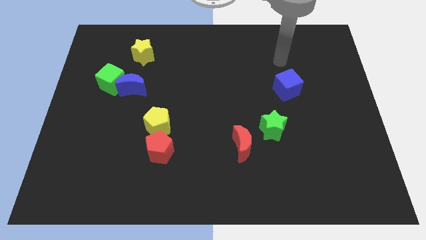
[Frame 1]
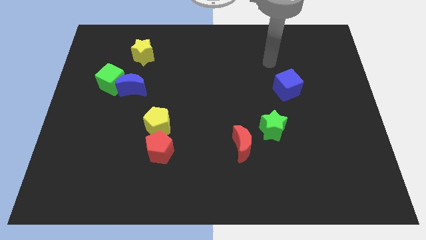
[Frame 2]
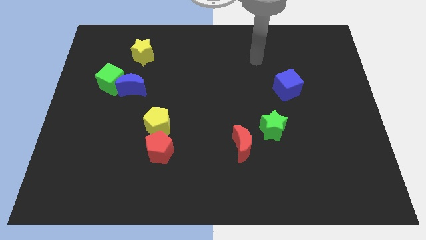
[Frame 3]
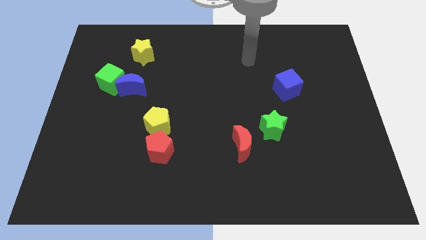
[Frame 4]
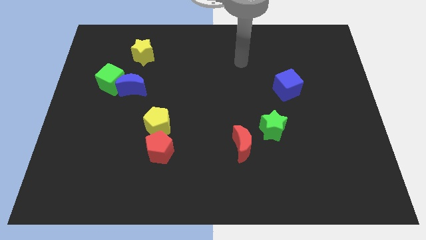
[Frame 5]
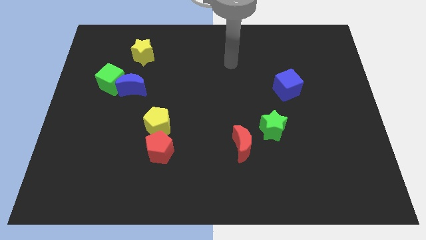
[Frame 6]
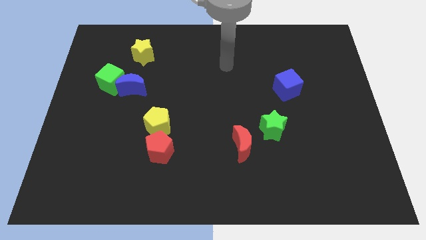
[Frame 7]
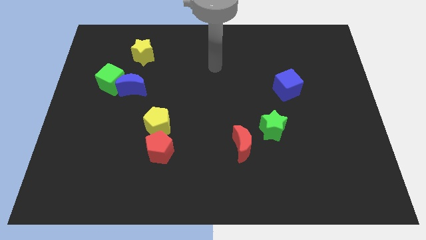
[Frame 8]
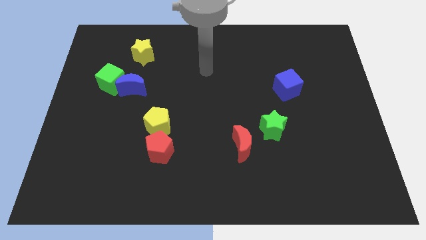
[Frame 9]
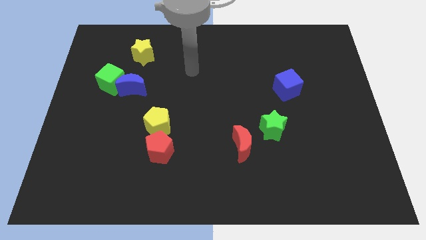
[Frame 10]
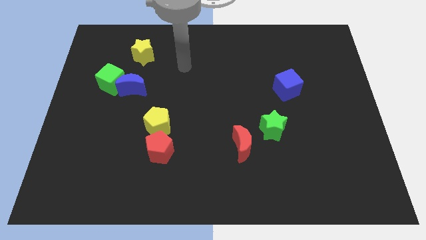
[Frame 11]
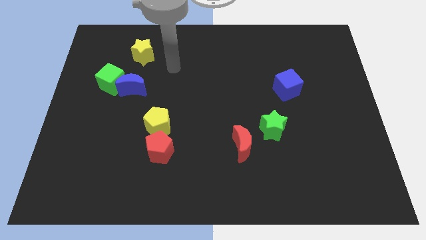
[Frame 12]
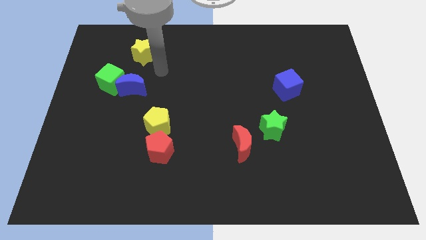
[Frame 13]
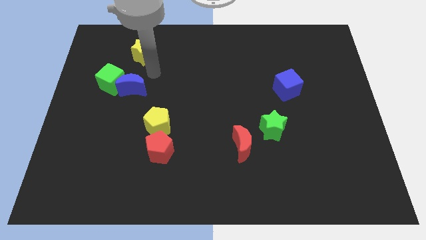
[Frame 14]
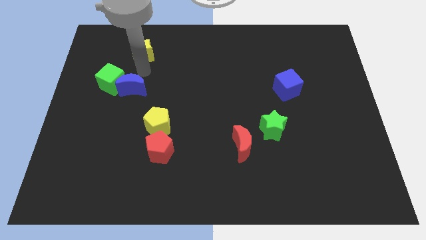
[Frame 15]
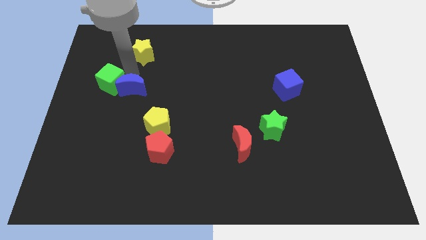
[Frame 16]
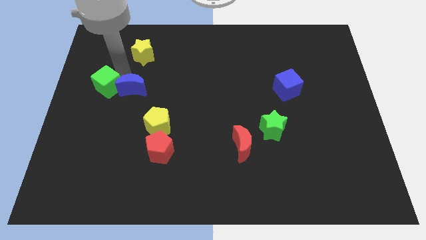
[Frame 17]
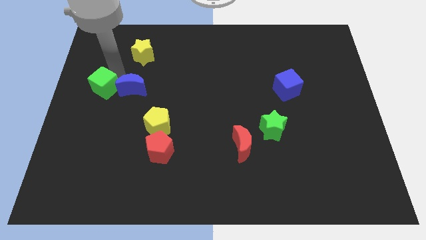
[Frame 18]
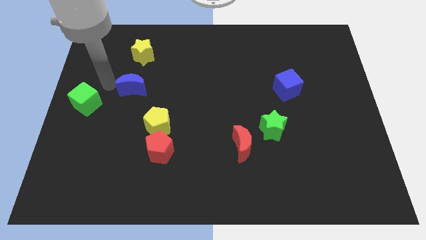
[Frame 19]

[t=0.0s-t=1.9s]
move the blue moon away from the green cube

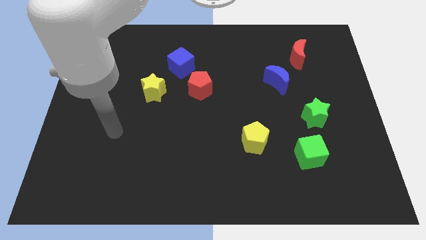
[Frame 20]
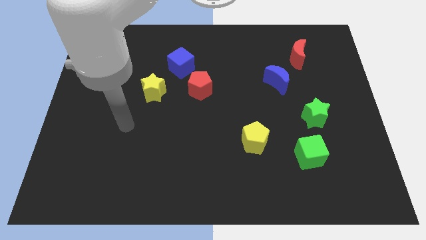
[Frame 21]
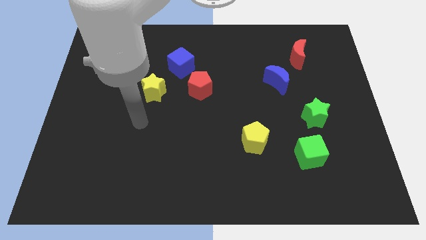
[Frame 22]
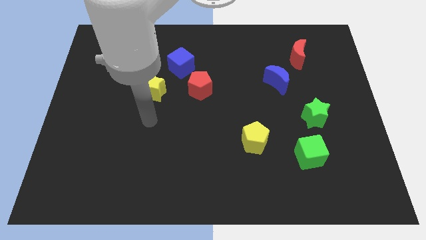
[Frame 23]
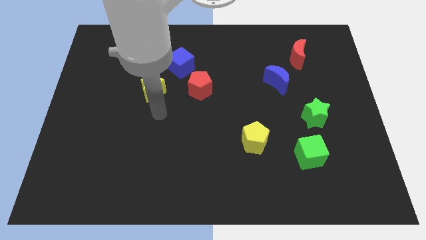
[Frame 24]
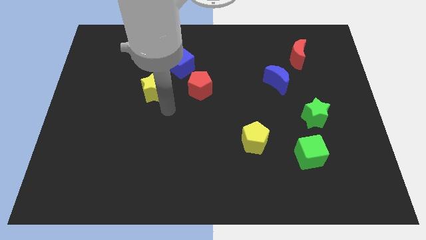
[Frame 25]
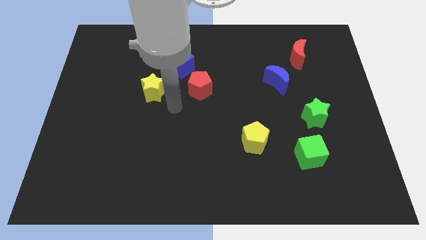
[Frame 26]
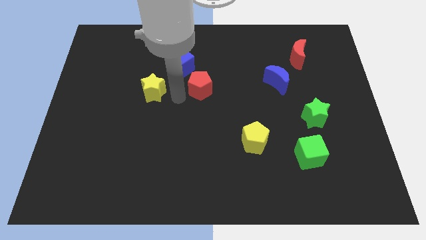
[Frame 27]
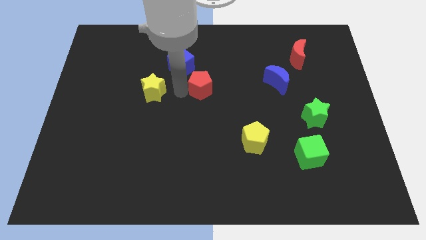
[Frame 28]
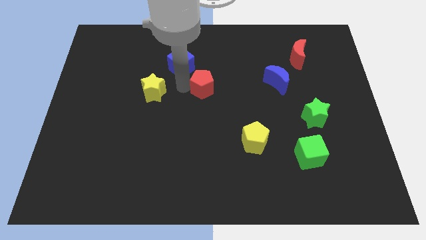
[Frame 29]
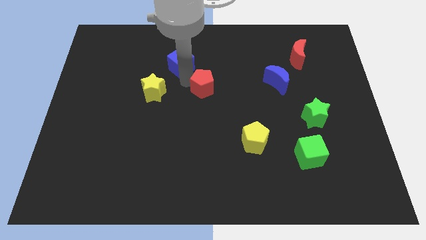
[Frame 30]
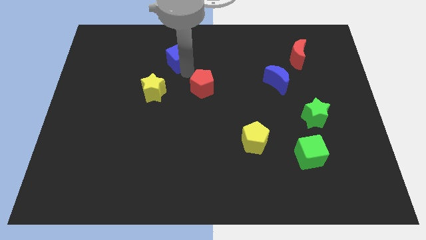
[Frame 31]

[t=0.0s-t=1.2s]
move the red pentagon away from the blue cube

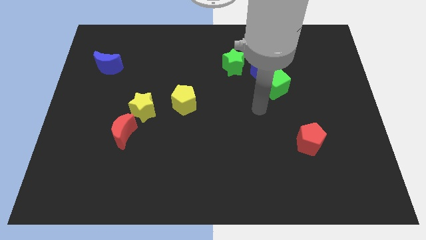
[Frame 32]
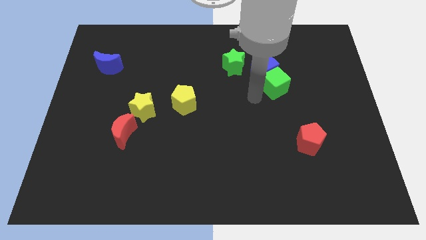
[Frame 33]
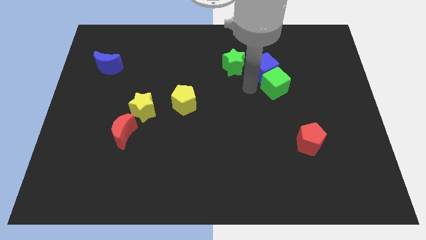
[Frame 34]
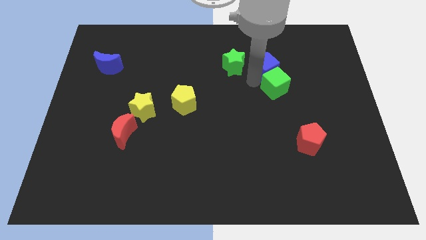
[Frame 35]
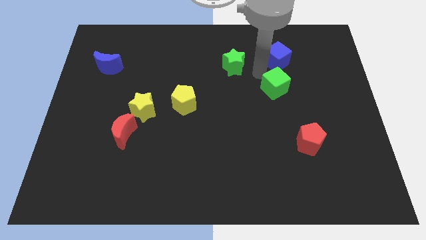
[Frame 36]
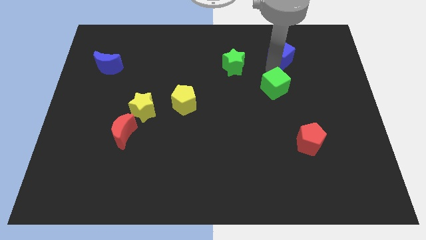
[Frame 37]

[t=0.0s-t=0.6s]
separate the green cube from the blue cube

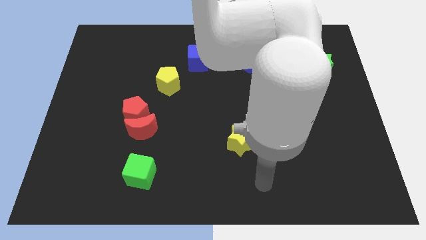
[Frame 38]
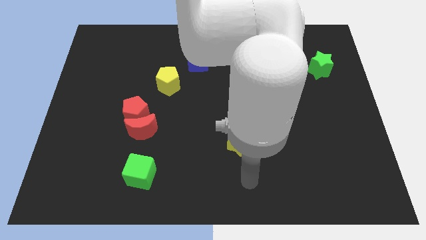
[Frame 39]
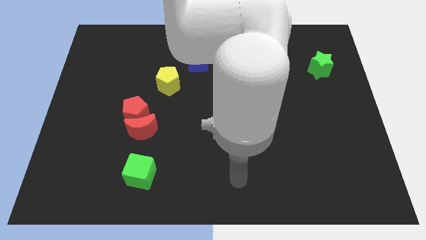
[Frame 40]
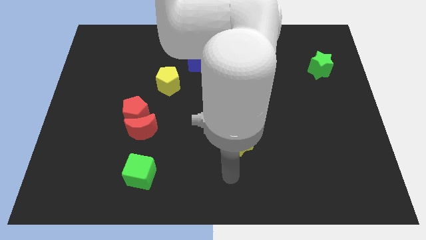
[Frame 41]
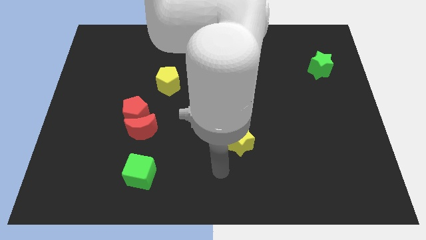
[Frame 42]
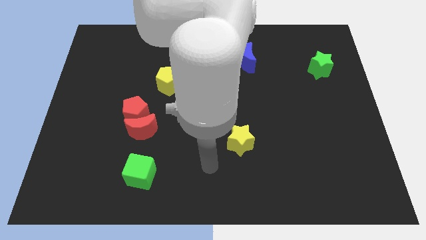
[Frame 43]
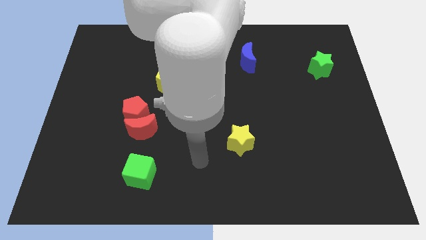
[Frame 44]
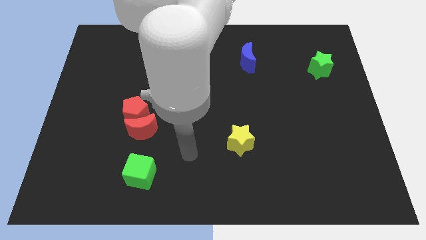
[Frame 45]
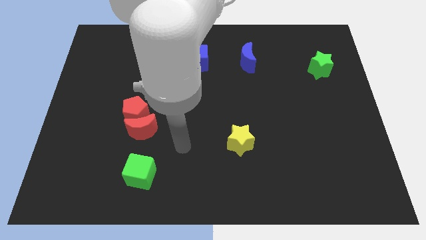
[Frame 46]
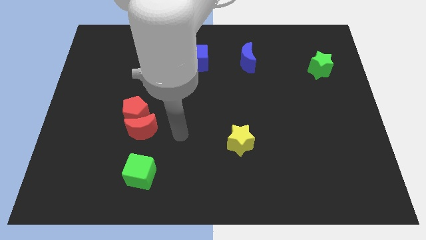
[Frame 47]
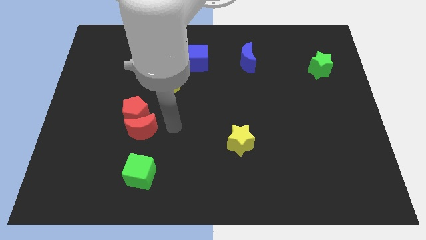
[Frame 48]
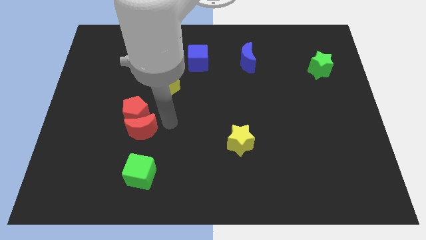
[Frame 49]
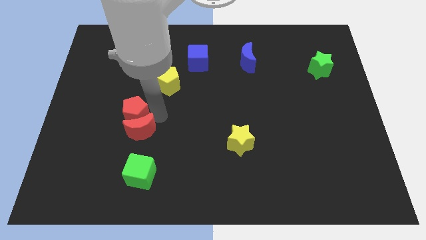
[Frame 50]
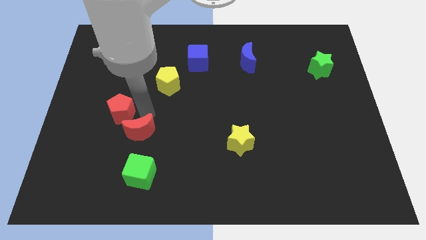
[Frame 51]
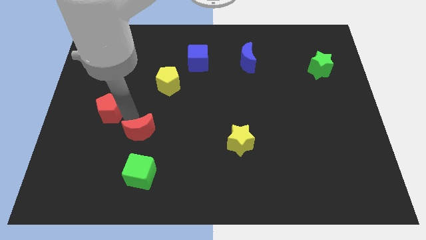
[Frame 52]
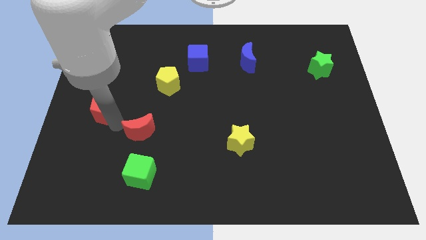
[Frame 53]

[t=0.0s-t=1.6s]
move the red moon away from the red pentagon

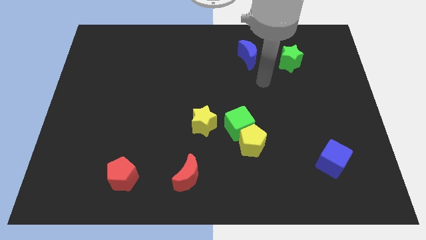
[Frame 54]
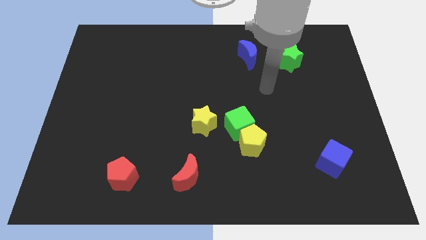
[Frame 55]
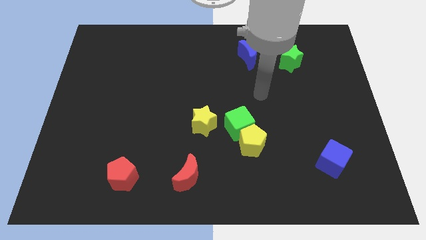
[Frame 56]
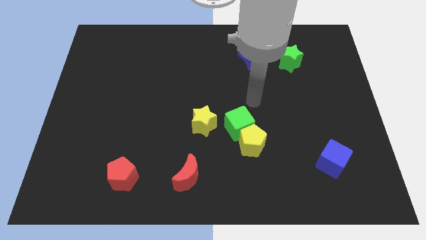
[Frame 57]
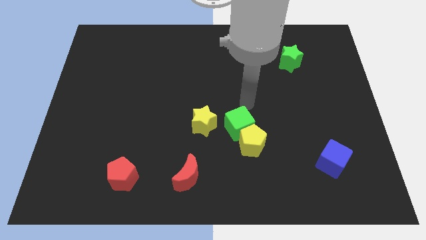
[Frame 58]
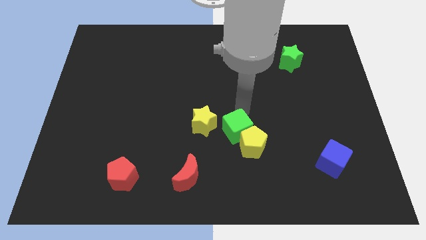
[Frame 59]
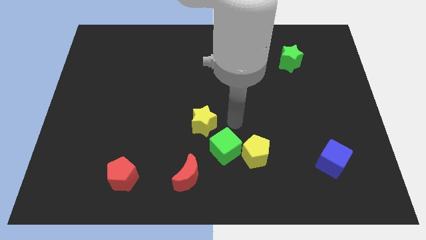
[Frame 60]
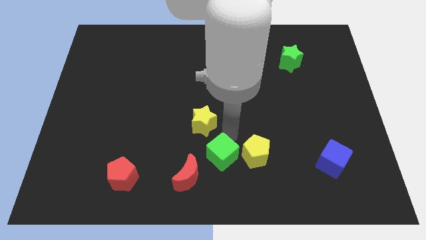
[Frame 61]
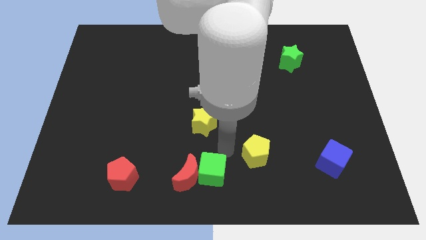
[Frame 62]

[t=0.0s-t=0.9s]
pull the yellow pentagon apart from the green cube

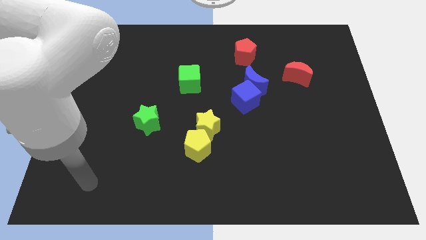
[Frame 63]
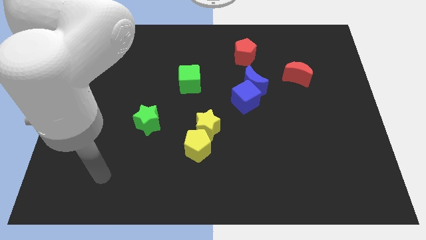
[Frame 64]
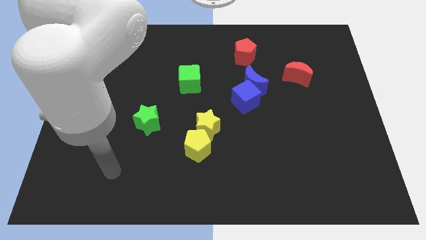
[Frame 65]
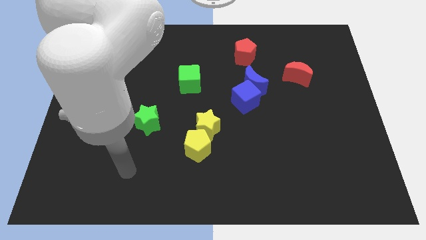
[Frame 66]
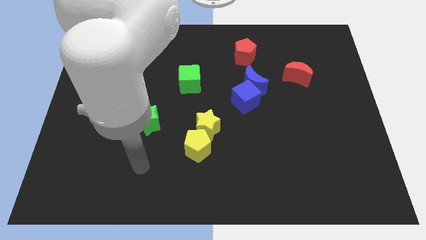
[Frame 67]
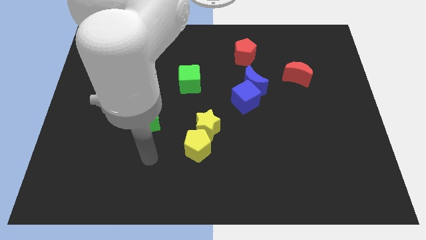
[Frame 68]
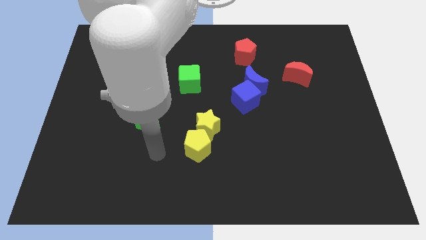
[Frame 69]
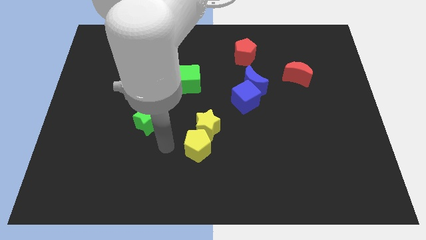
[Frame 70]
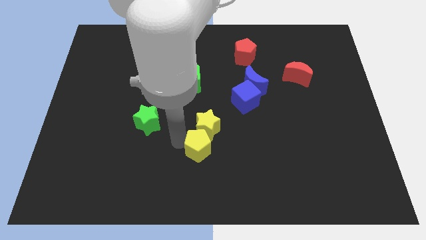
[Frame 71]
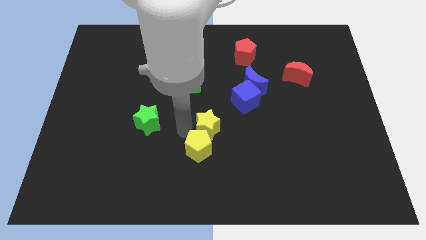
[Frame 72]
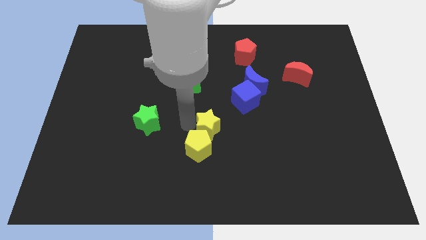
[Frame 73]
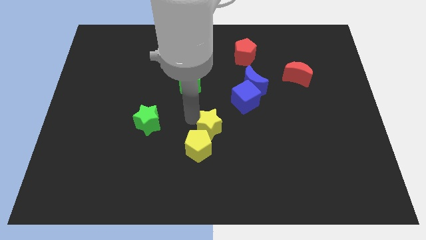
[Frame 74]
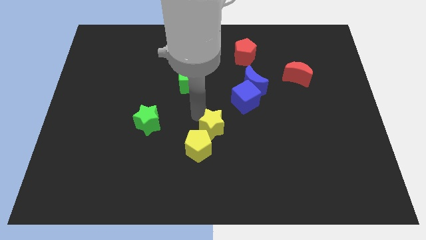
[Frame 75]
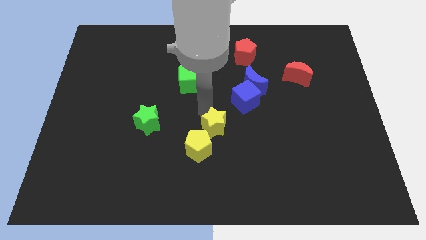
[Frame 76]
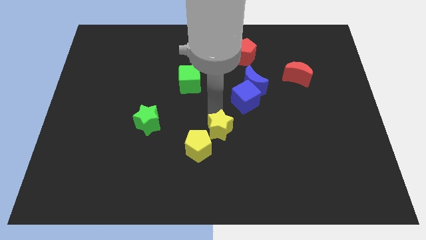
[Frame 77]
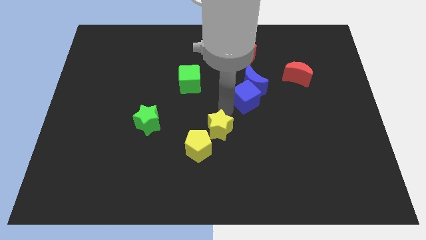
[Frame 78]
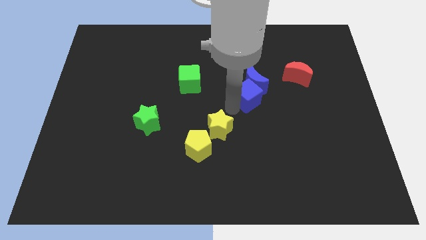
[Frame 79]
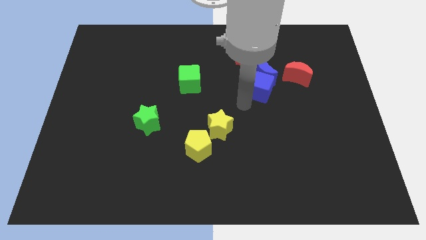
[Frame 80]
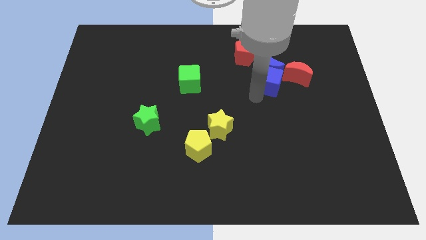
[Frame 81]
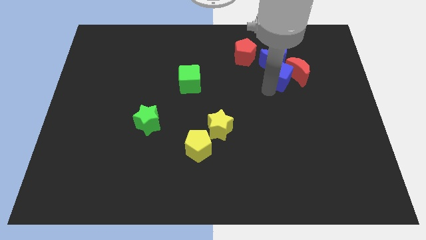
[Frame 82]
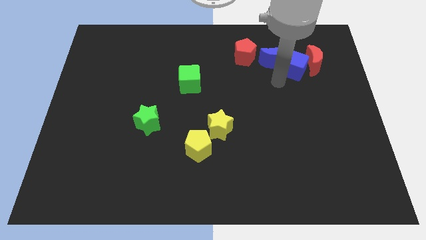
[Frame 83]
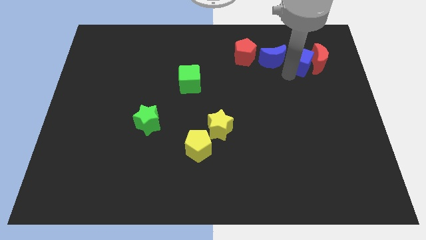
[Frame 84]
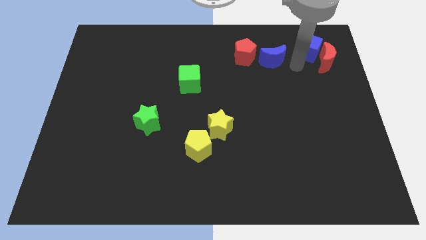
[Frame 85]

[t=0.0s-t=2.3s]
separate the blue moon from the blue cube

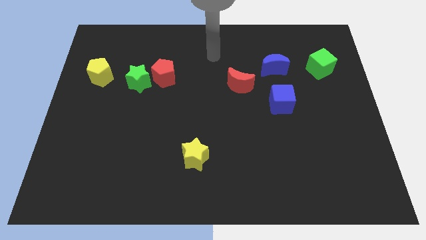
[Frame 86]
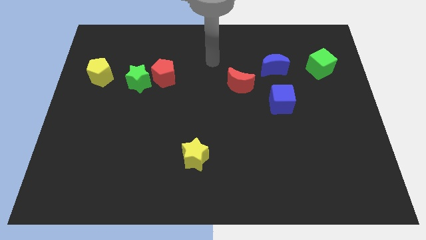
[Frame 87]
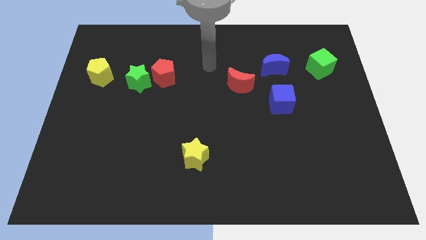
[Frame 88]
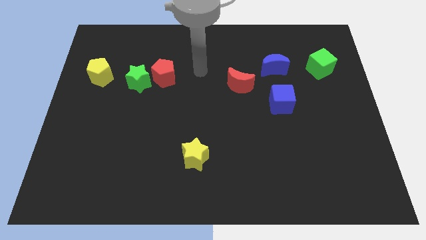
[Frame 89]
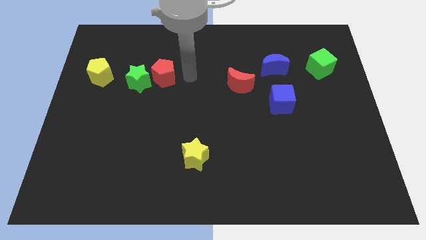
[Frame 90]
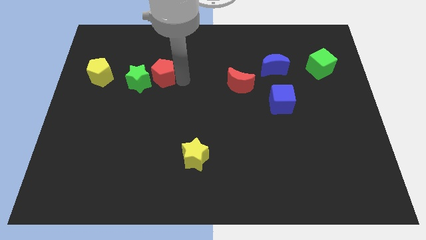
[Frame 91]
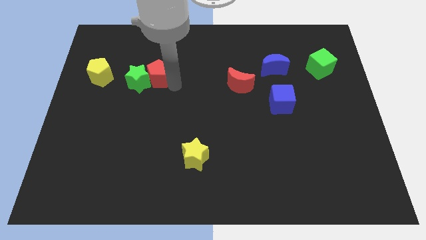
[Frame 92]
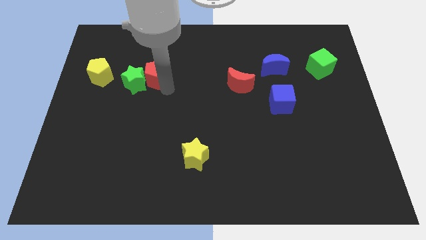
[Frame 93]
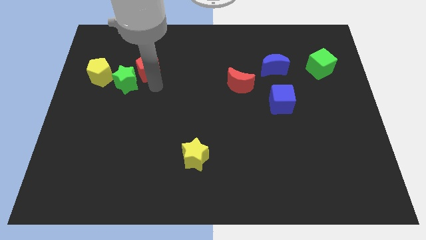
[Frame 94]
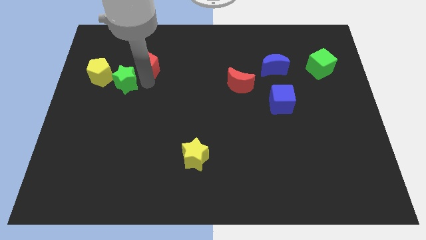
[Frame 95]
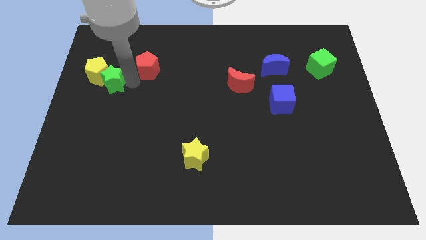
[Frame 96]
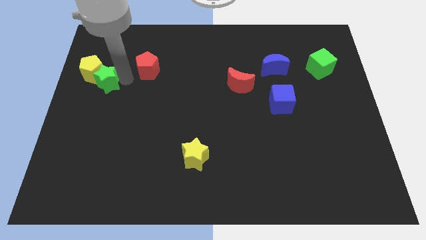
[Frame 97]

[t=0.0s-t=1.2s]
separate the red pentagon from the green star
